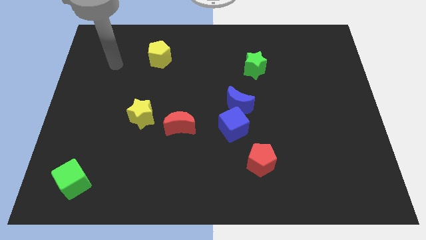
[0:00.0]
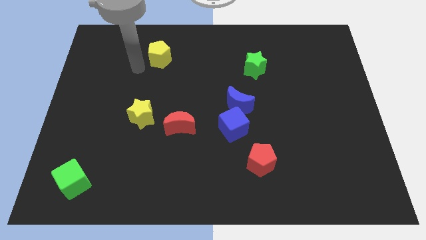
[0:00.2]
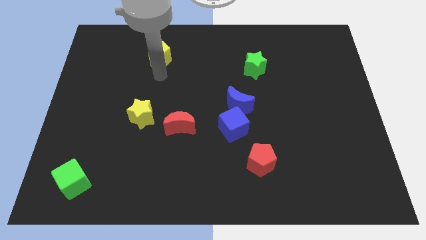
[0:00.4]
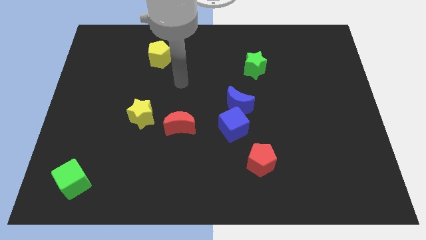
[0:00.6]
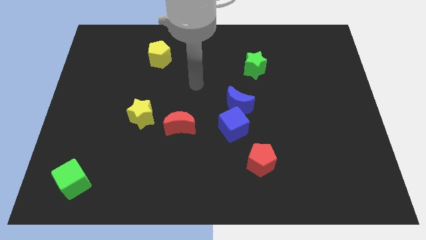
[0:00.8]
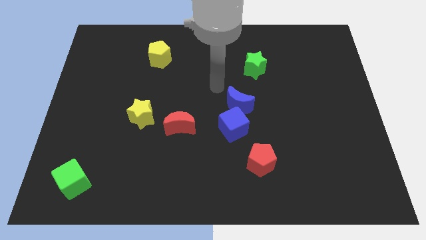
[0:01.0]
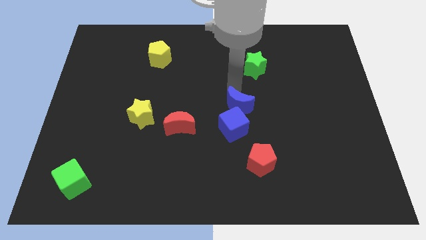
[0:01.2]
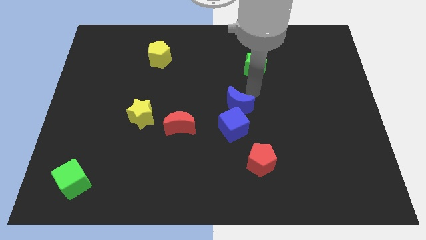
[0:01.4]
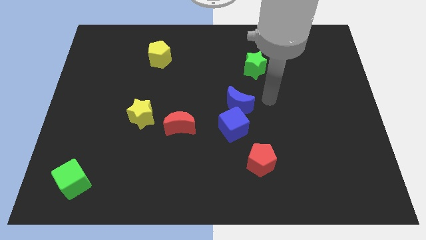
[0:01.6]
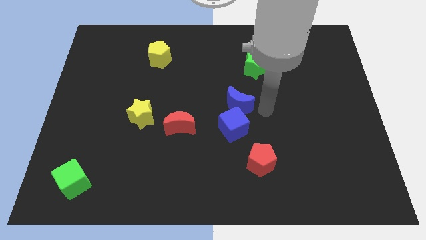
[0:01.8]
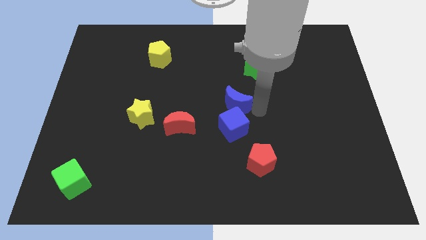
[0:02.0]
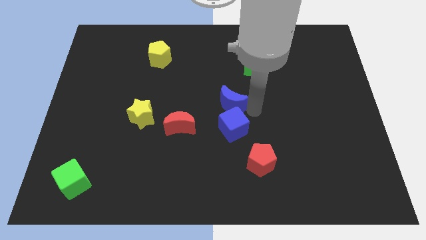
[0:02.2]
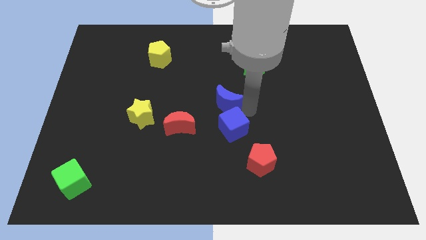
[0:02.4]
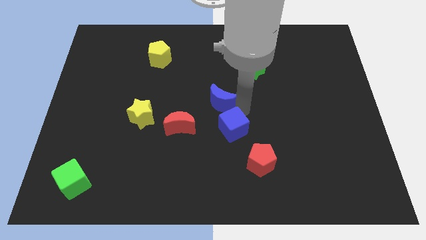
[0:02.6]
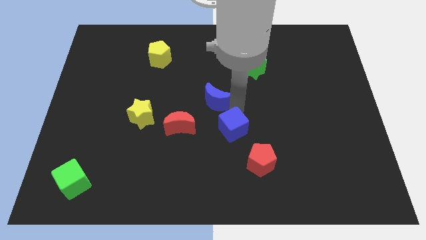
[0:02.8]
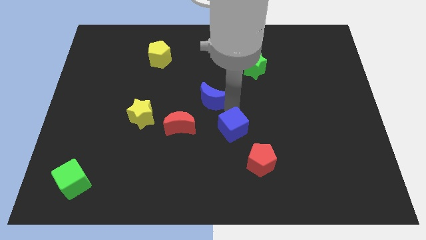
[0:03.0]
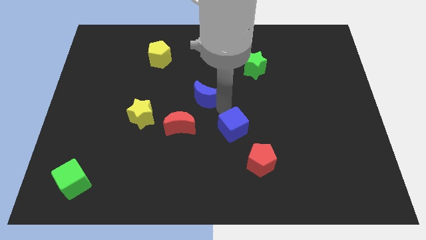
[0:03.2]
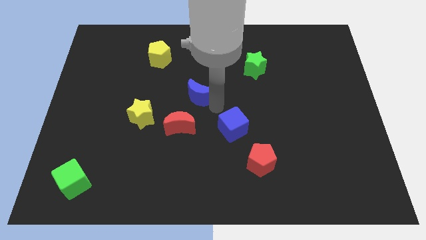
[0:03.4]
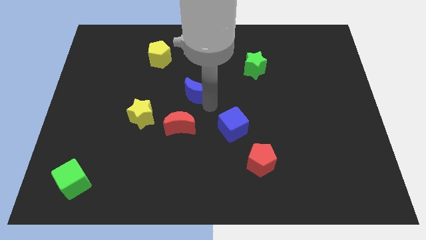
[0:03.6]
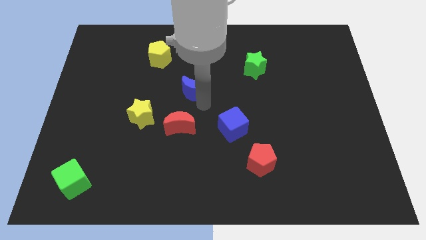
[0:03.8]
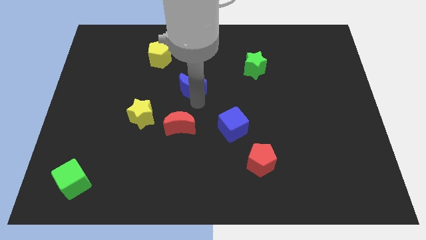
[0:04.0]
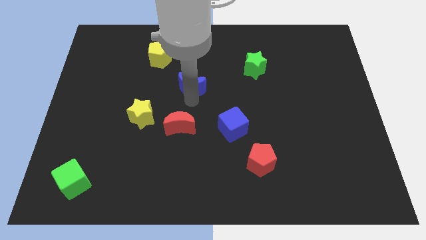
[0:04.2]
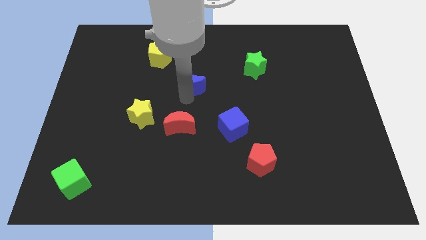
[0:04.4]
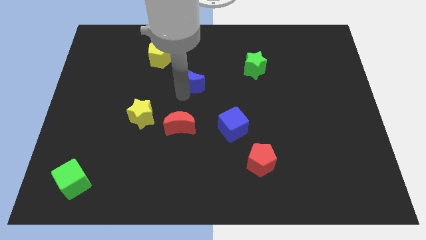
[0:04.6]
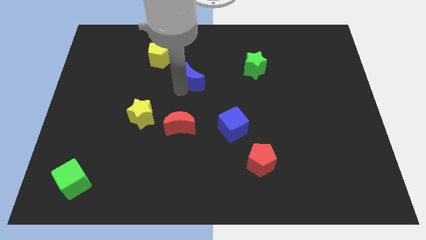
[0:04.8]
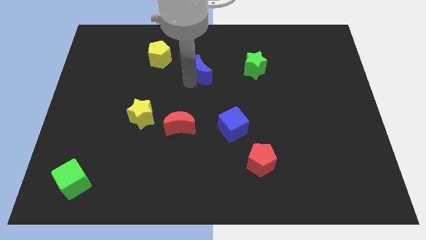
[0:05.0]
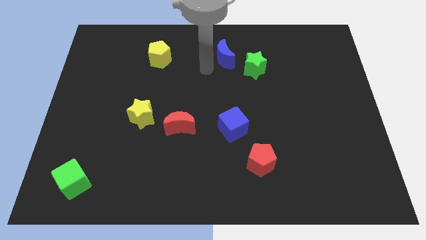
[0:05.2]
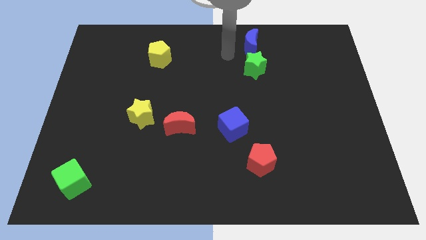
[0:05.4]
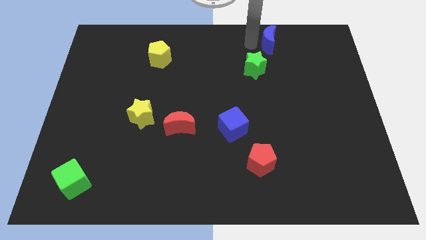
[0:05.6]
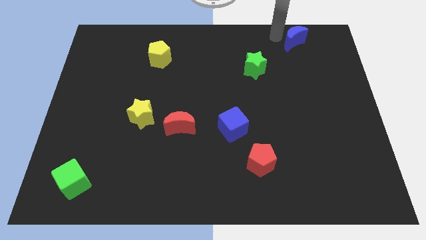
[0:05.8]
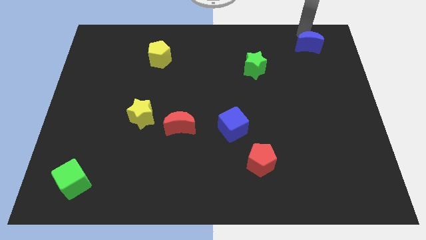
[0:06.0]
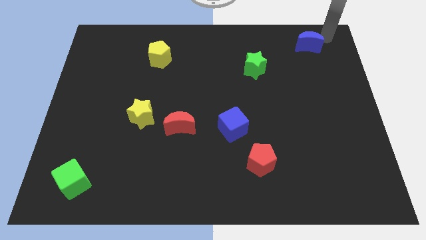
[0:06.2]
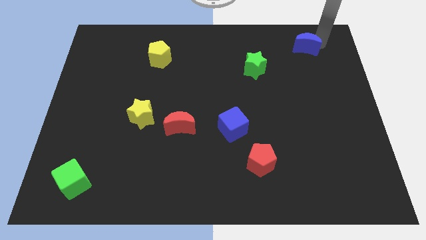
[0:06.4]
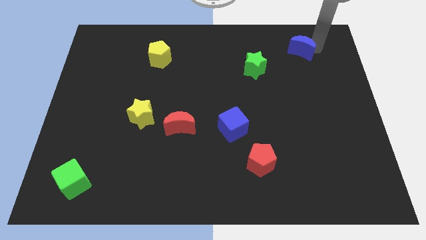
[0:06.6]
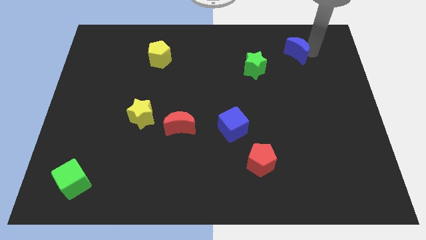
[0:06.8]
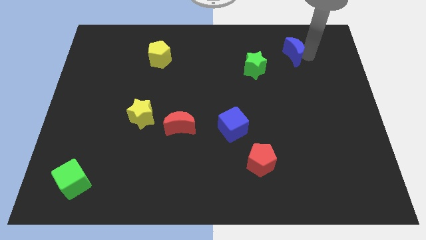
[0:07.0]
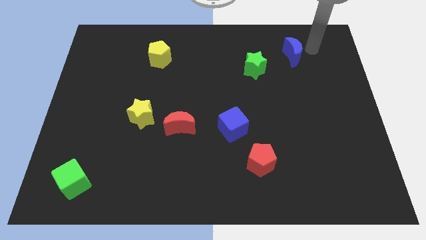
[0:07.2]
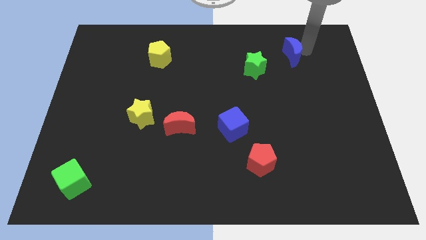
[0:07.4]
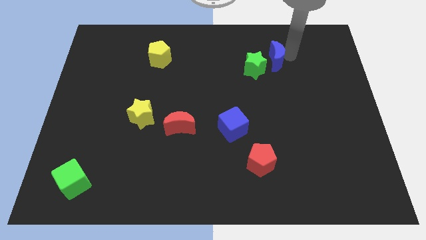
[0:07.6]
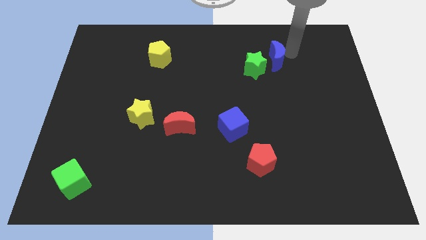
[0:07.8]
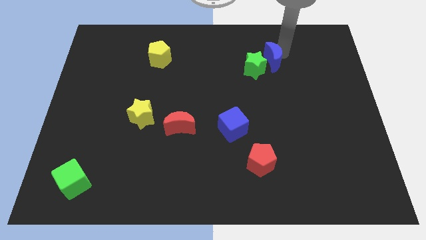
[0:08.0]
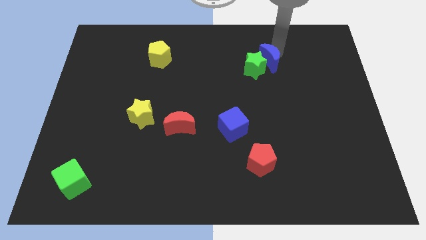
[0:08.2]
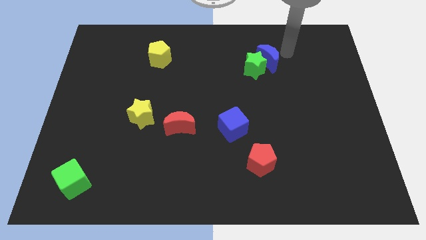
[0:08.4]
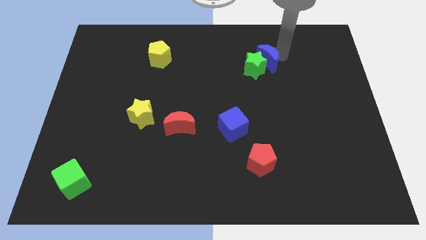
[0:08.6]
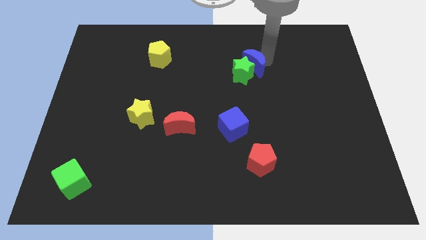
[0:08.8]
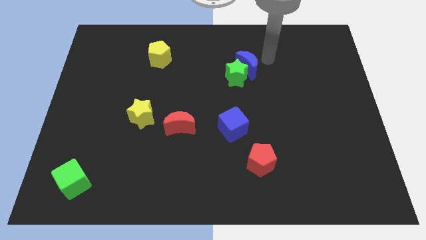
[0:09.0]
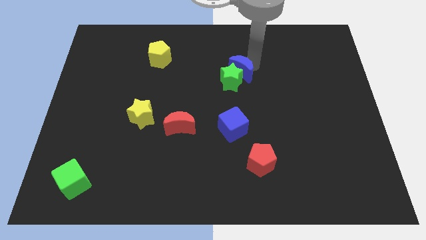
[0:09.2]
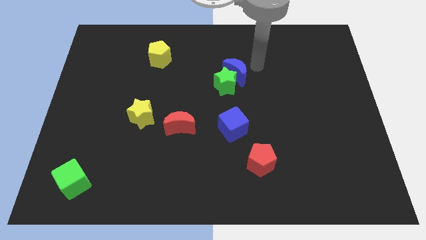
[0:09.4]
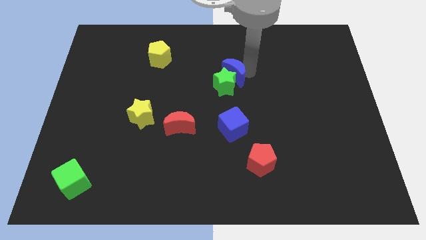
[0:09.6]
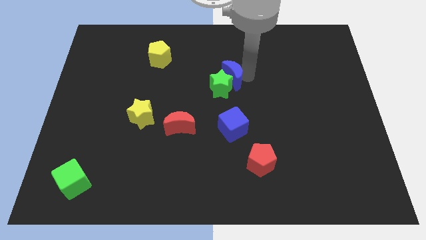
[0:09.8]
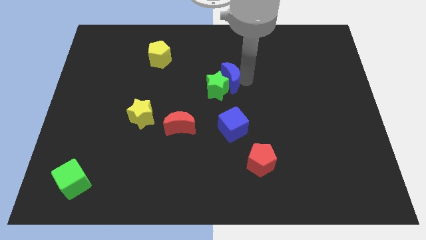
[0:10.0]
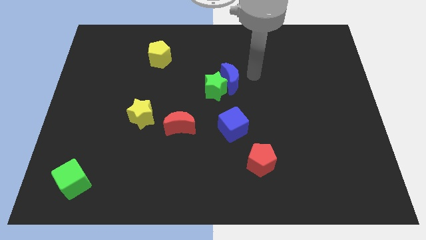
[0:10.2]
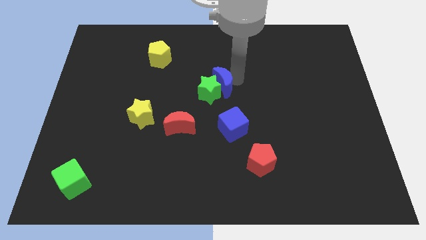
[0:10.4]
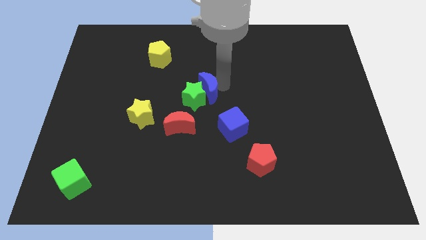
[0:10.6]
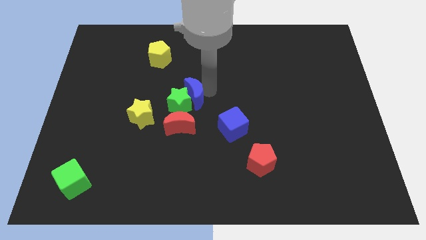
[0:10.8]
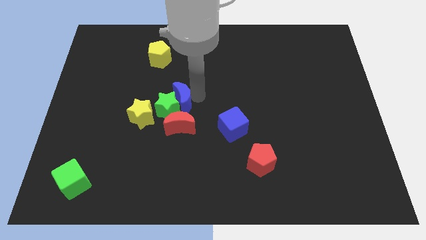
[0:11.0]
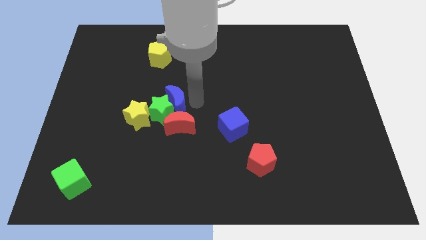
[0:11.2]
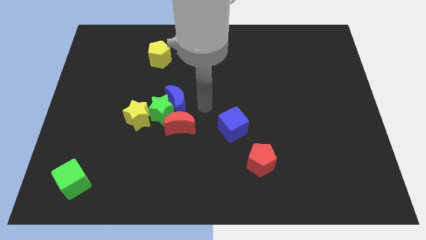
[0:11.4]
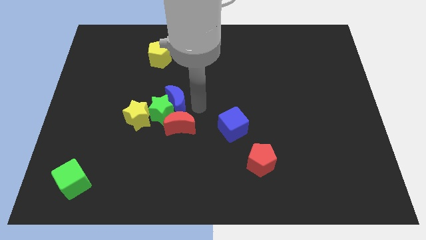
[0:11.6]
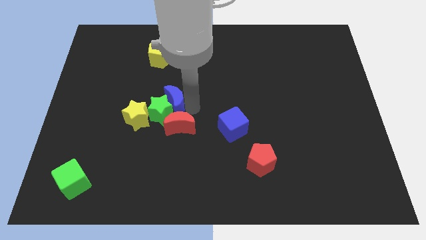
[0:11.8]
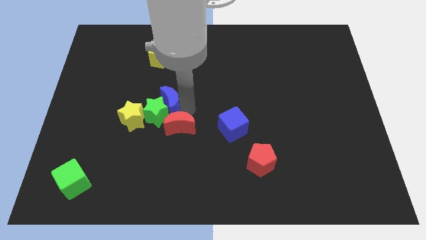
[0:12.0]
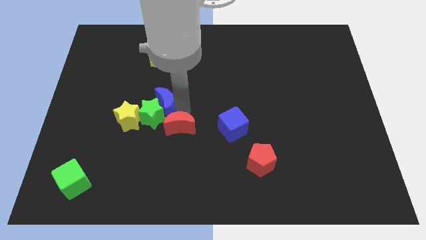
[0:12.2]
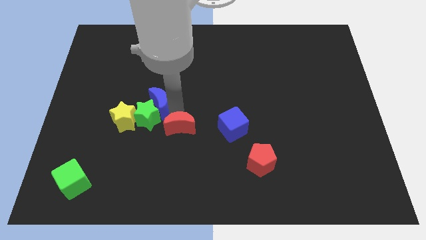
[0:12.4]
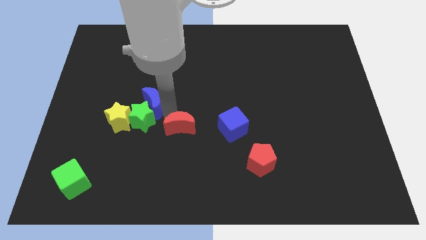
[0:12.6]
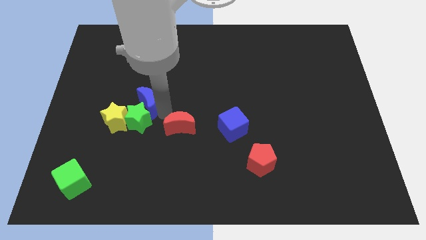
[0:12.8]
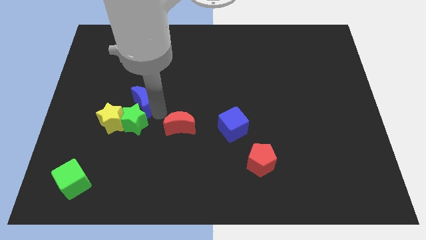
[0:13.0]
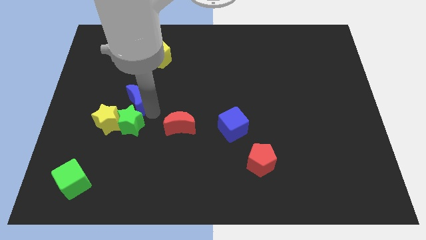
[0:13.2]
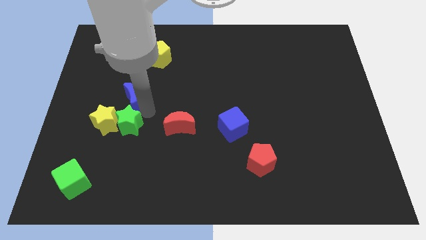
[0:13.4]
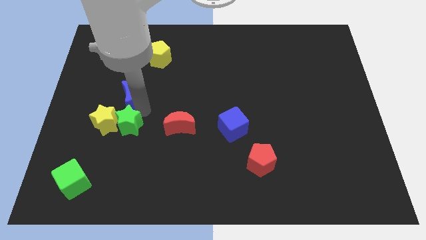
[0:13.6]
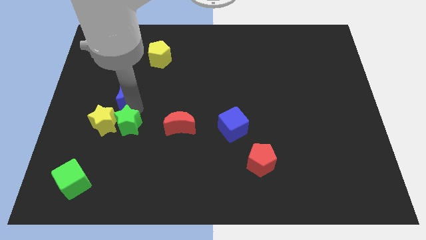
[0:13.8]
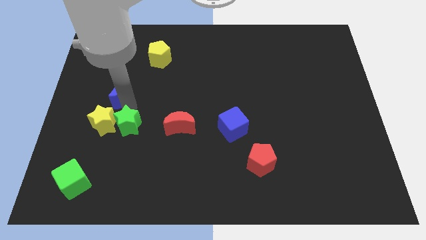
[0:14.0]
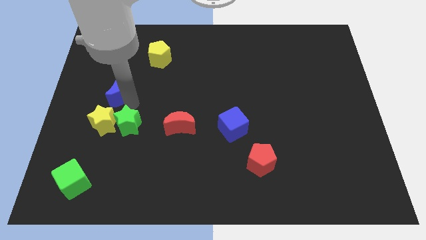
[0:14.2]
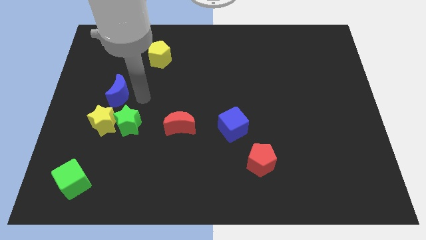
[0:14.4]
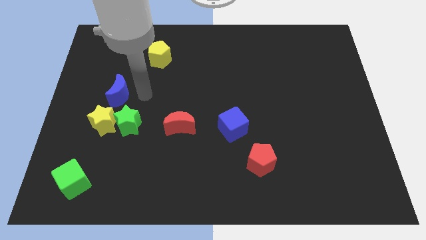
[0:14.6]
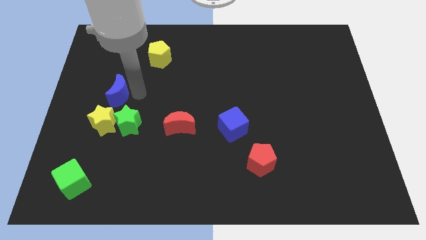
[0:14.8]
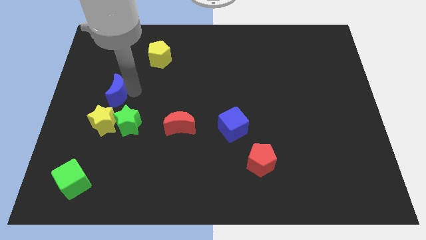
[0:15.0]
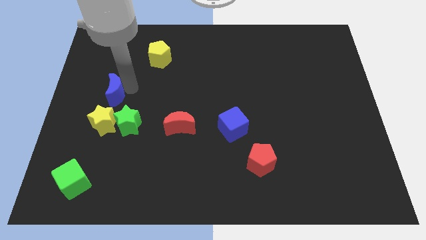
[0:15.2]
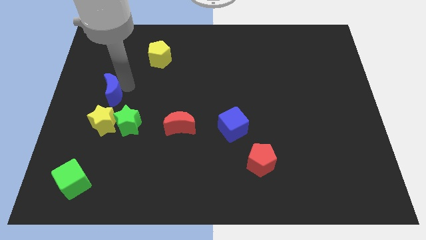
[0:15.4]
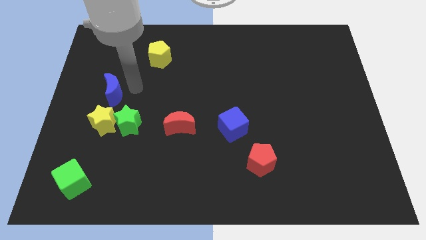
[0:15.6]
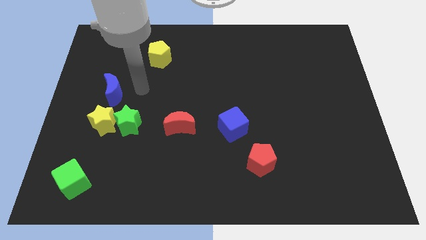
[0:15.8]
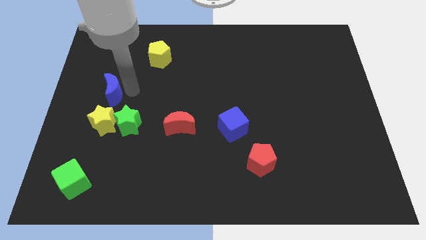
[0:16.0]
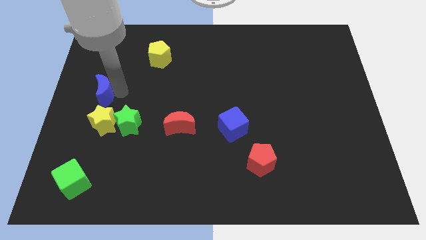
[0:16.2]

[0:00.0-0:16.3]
push the blue moon to the center left
